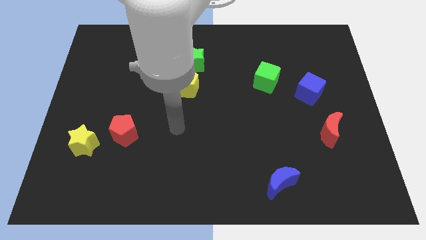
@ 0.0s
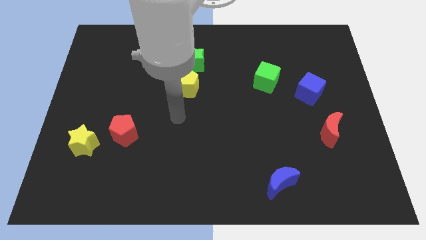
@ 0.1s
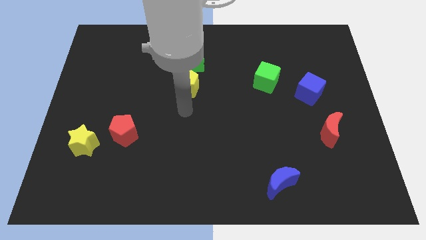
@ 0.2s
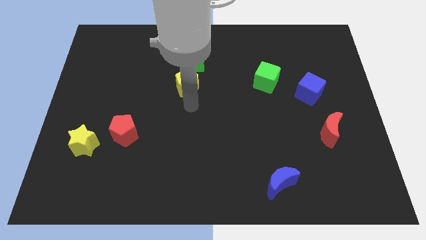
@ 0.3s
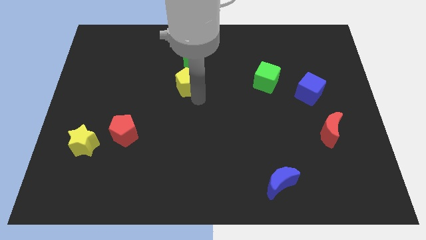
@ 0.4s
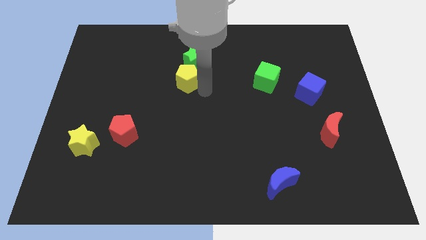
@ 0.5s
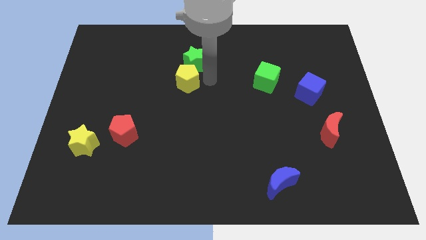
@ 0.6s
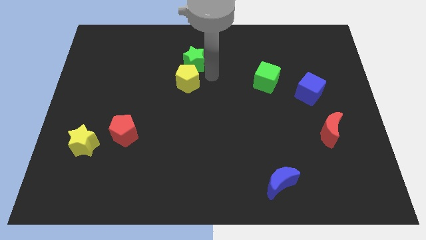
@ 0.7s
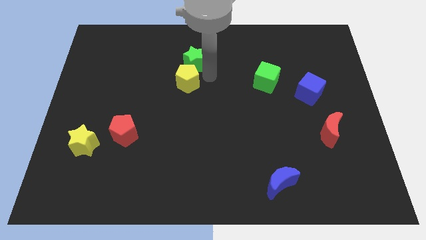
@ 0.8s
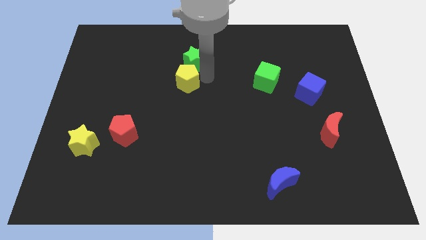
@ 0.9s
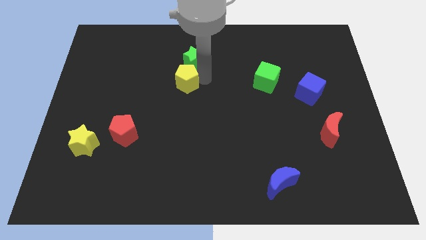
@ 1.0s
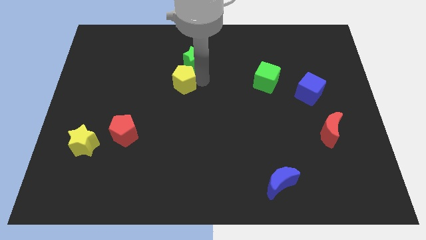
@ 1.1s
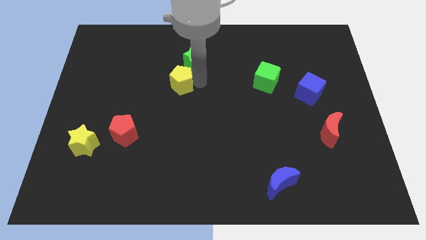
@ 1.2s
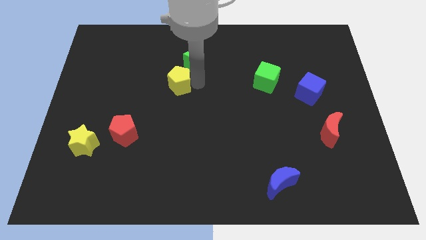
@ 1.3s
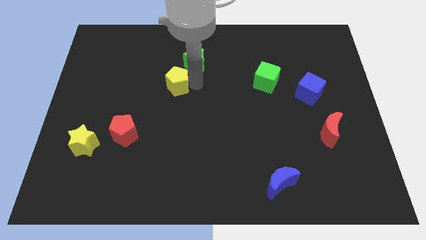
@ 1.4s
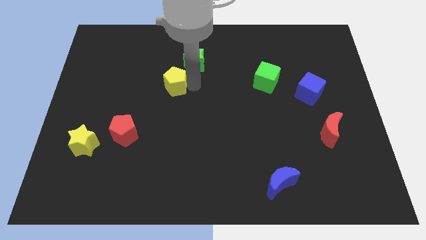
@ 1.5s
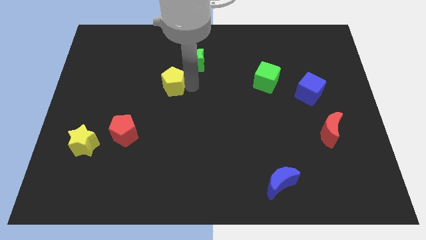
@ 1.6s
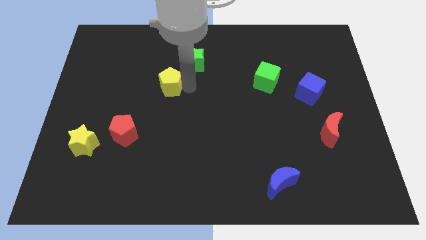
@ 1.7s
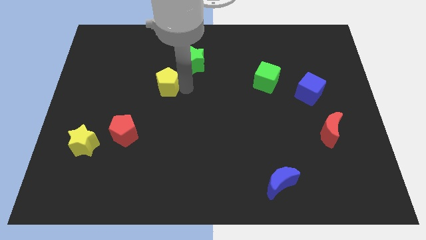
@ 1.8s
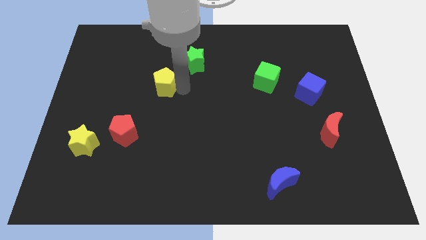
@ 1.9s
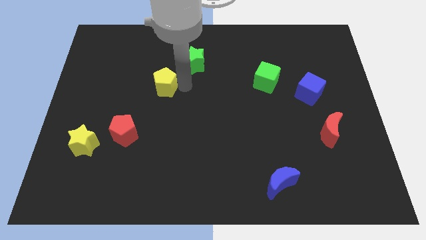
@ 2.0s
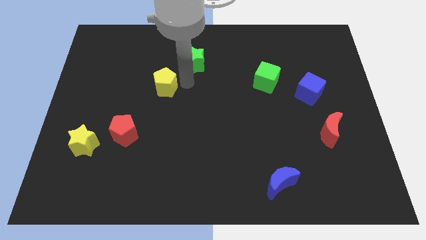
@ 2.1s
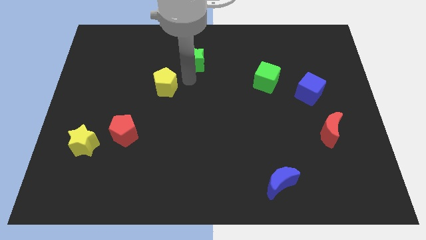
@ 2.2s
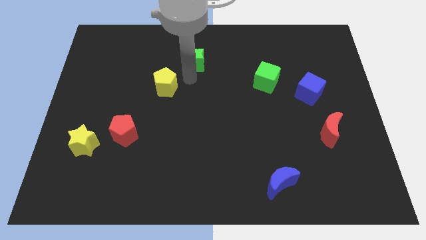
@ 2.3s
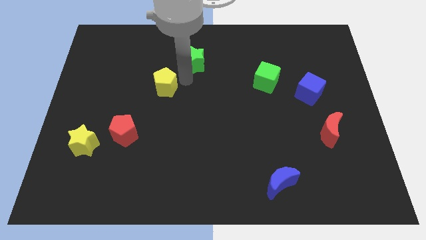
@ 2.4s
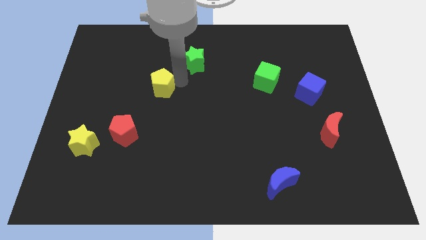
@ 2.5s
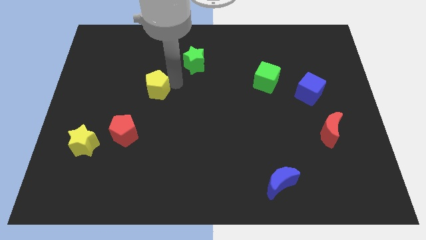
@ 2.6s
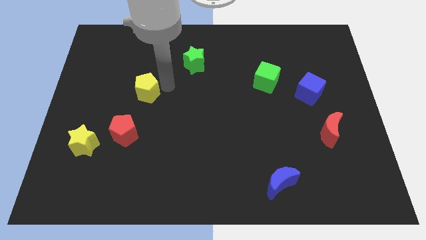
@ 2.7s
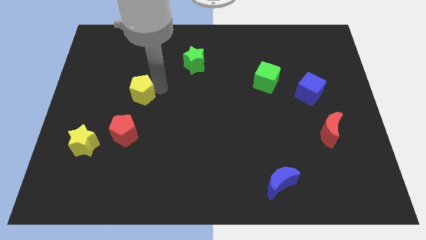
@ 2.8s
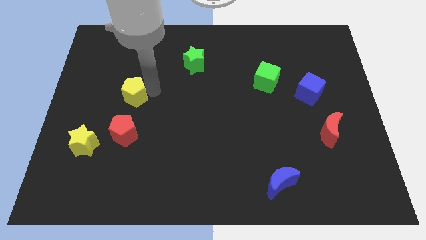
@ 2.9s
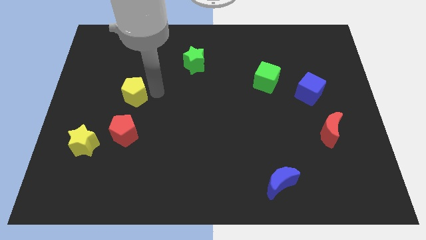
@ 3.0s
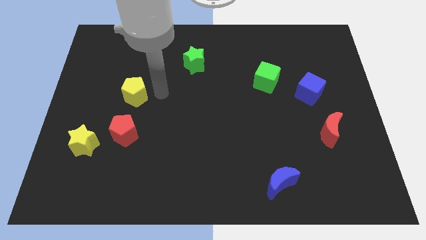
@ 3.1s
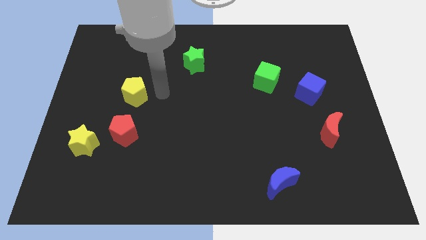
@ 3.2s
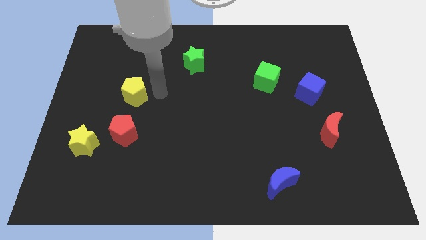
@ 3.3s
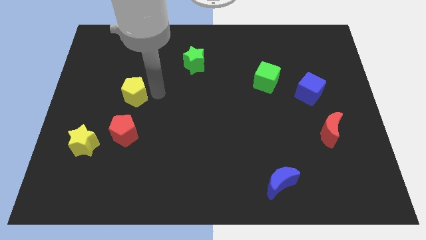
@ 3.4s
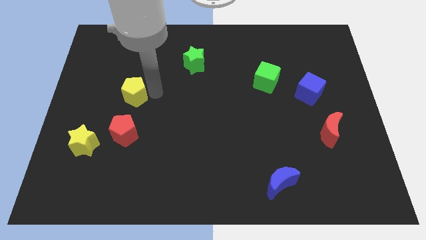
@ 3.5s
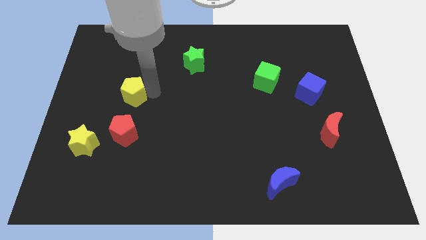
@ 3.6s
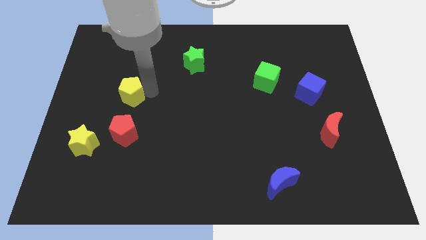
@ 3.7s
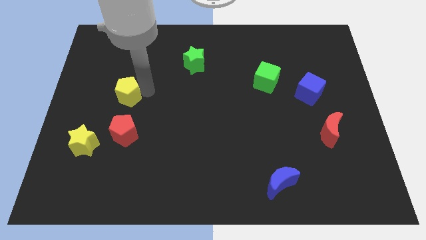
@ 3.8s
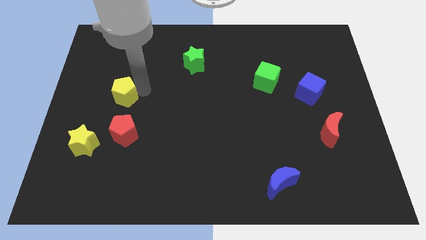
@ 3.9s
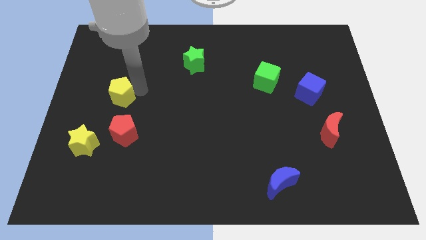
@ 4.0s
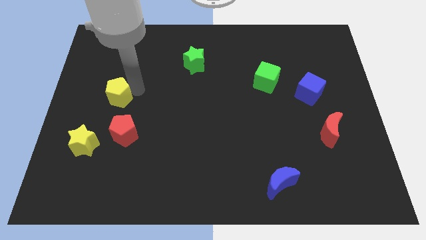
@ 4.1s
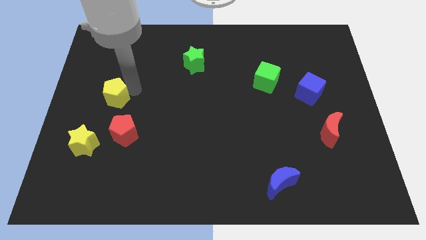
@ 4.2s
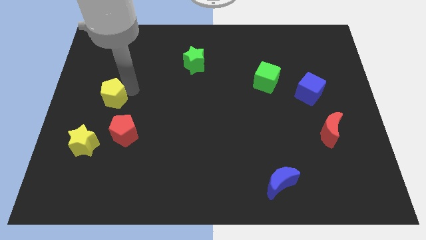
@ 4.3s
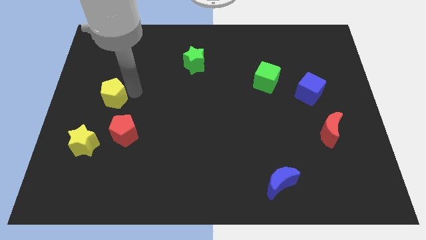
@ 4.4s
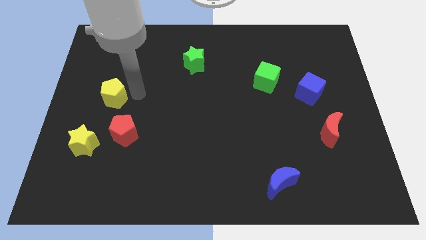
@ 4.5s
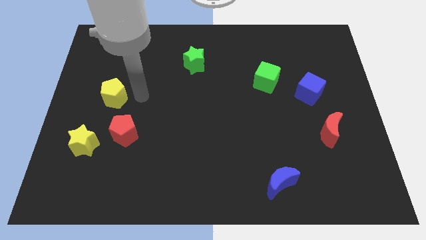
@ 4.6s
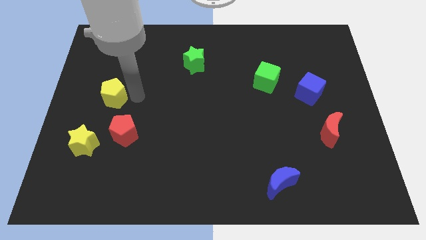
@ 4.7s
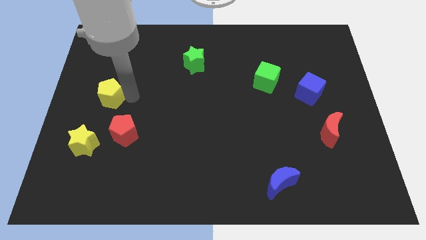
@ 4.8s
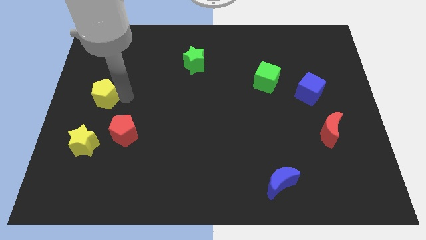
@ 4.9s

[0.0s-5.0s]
move the yellow pentagon to the center left
